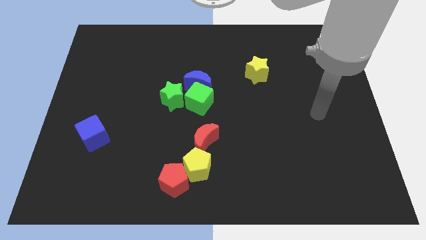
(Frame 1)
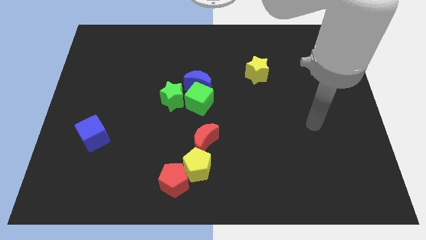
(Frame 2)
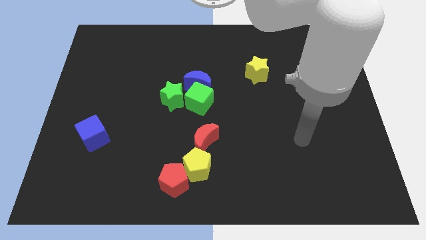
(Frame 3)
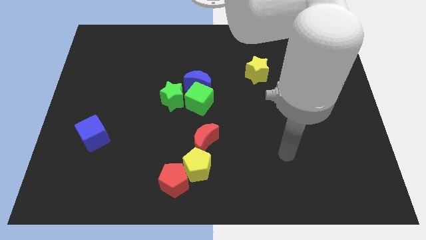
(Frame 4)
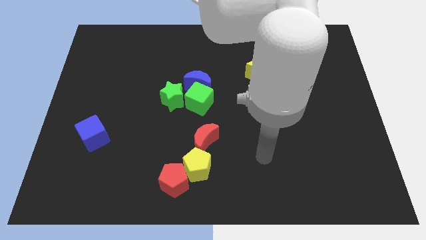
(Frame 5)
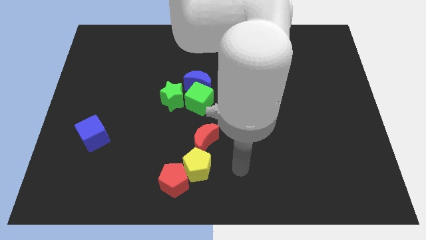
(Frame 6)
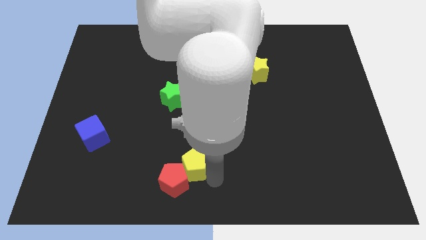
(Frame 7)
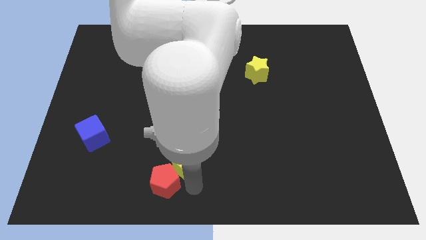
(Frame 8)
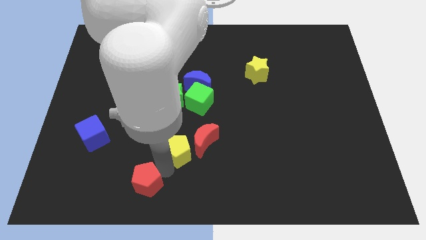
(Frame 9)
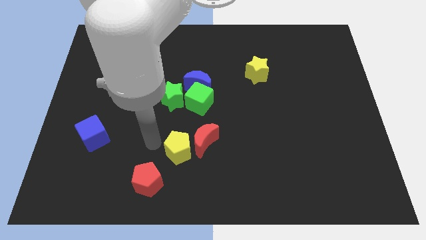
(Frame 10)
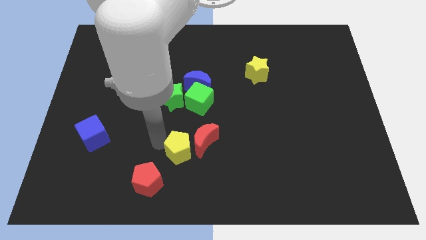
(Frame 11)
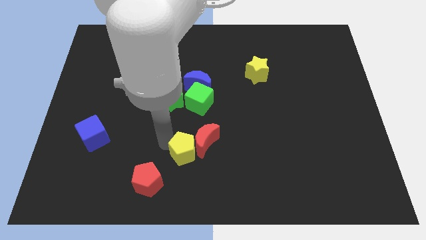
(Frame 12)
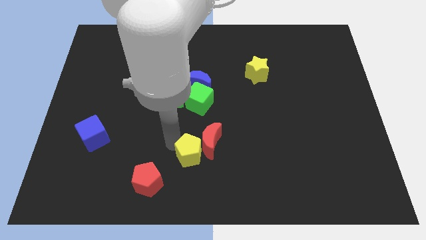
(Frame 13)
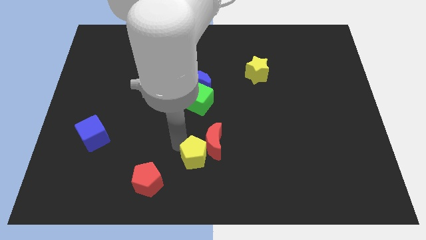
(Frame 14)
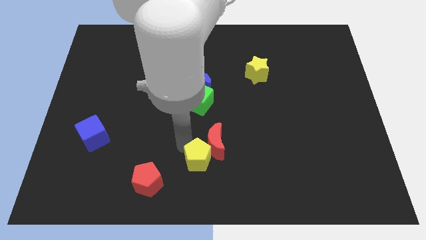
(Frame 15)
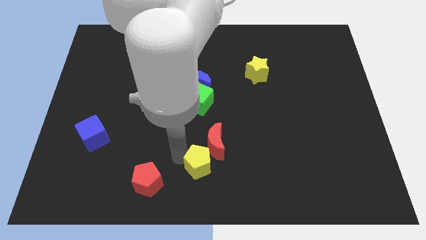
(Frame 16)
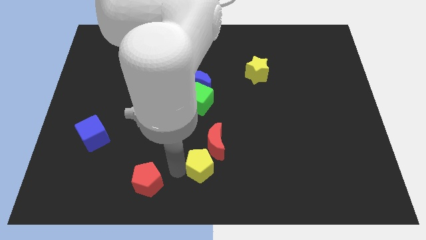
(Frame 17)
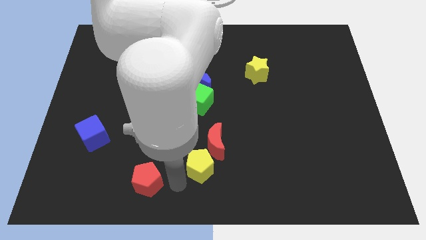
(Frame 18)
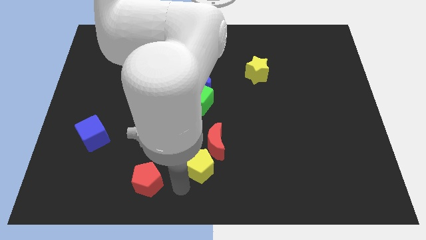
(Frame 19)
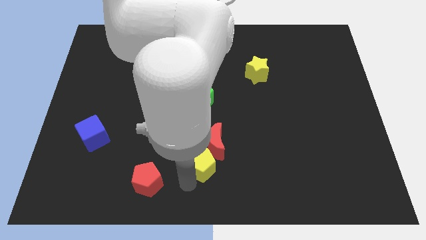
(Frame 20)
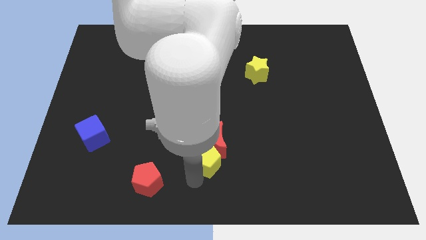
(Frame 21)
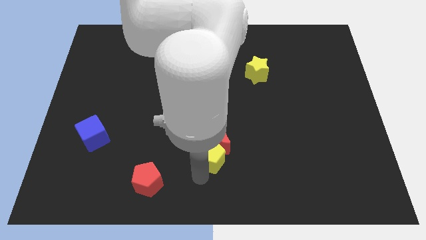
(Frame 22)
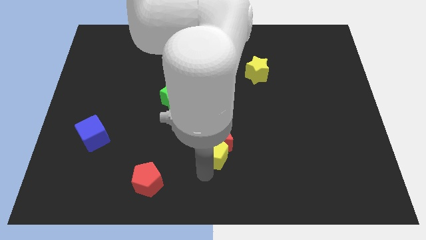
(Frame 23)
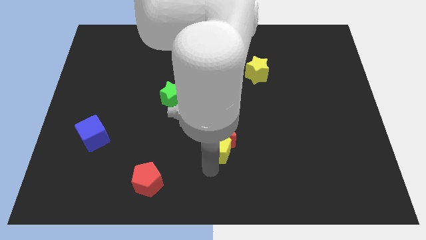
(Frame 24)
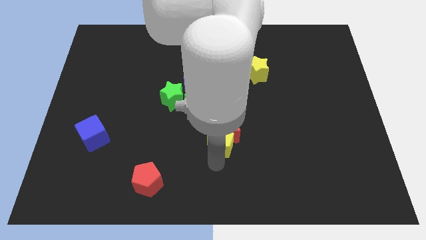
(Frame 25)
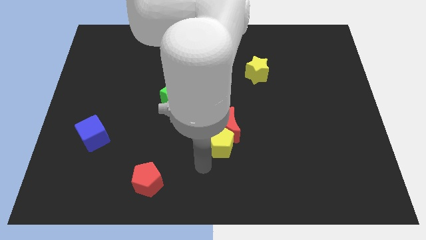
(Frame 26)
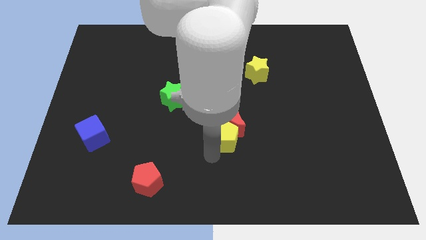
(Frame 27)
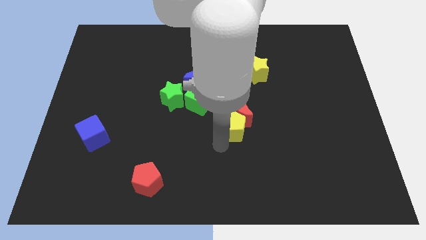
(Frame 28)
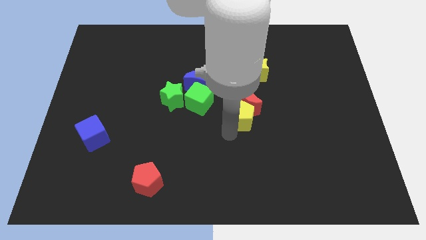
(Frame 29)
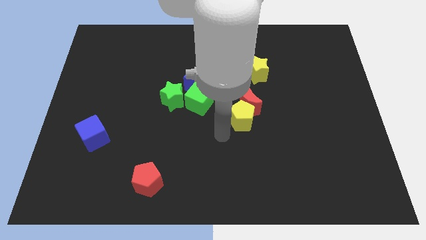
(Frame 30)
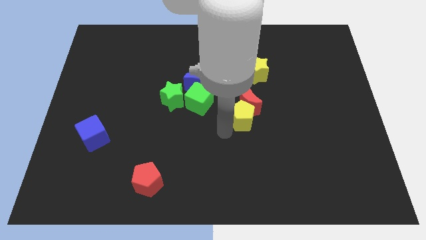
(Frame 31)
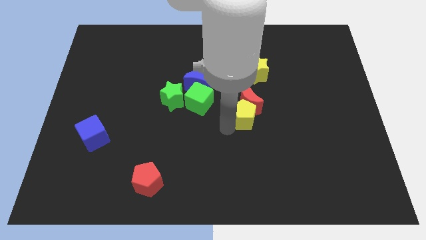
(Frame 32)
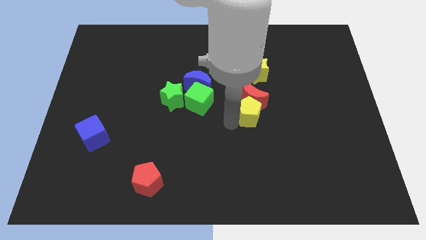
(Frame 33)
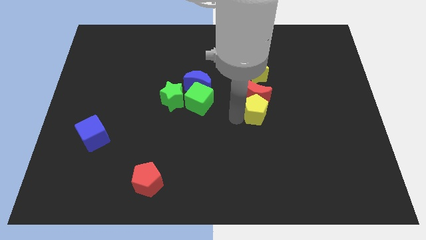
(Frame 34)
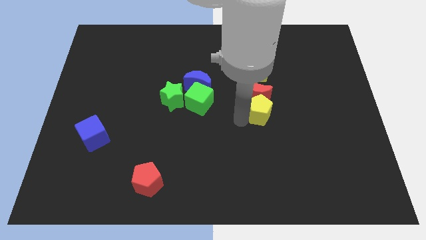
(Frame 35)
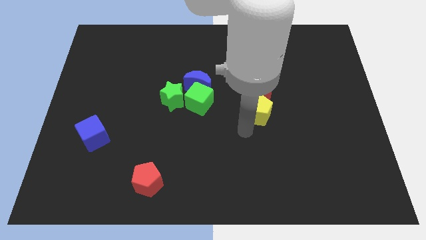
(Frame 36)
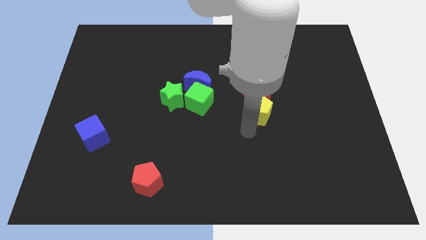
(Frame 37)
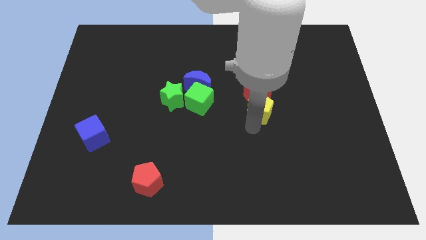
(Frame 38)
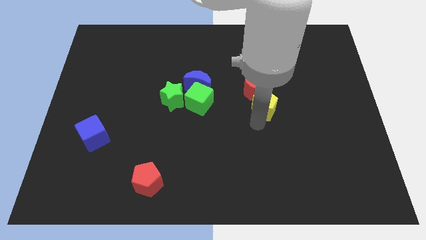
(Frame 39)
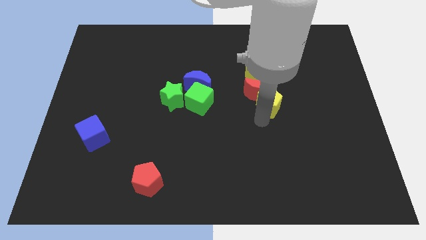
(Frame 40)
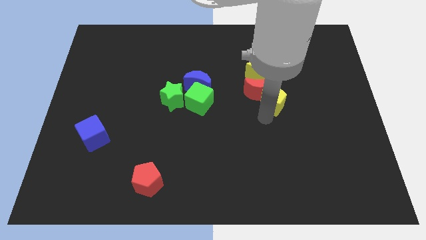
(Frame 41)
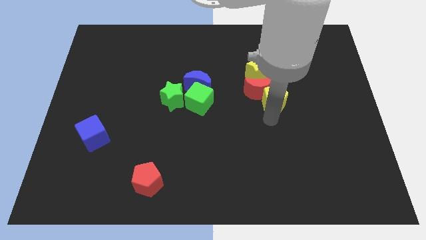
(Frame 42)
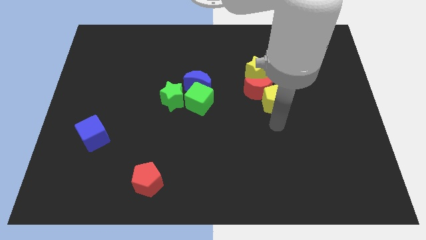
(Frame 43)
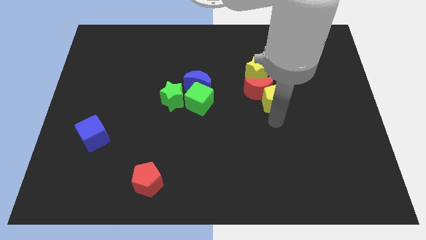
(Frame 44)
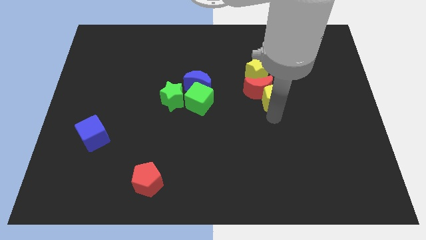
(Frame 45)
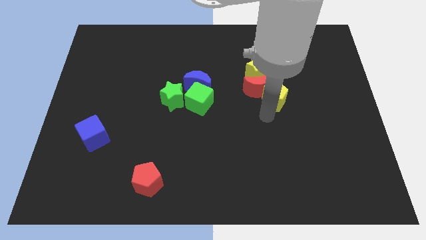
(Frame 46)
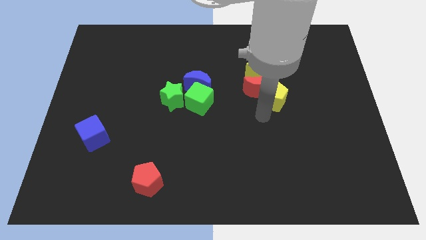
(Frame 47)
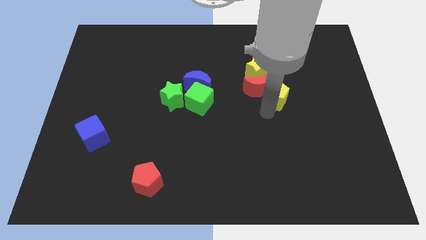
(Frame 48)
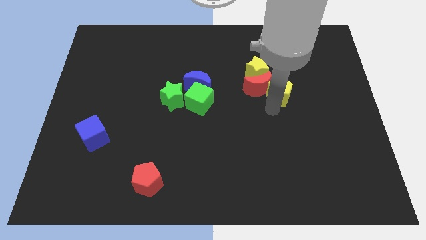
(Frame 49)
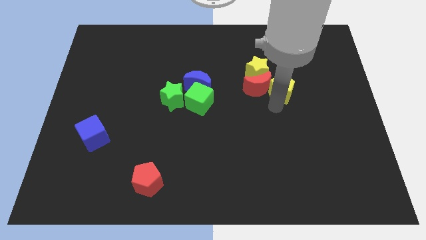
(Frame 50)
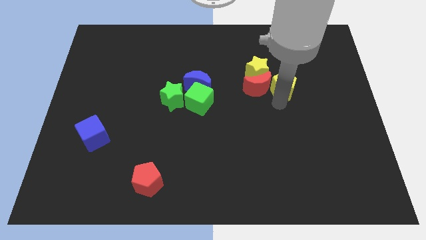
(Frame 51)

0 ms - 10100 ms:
move the yellow pentagon right of the yellow star

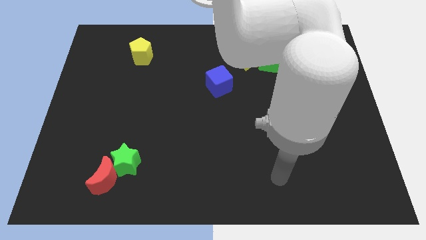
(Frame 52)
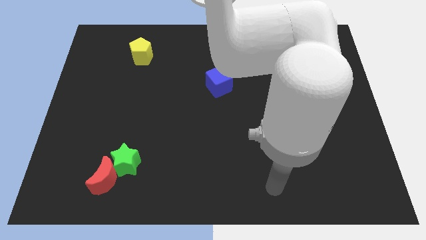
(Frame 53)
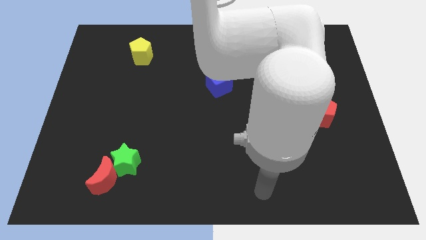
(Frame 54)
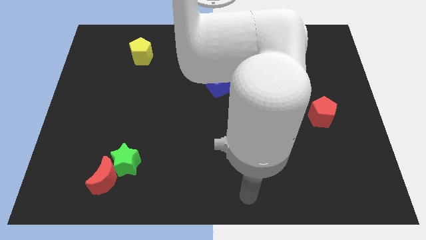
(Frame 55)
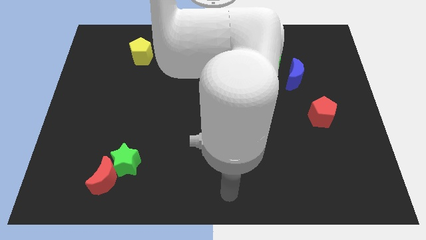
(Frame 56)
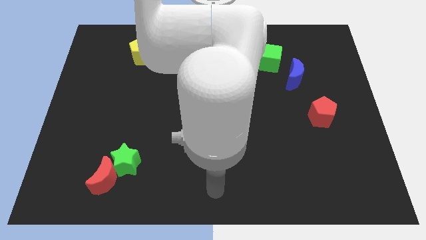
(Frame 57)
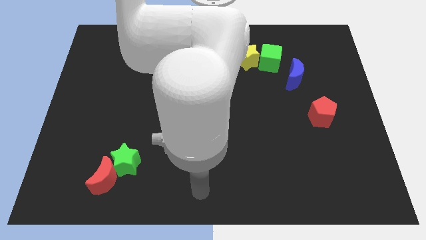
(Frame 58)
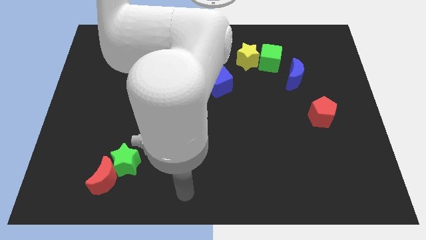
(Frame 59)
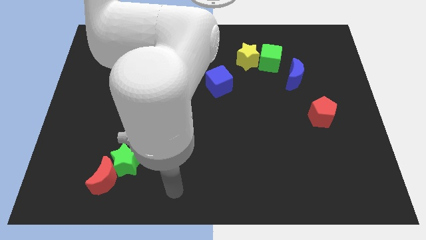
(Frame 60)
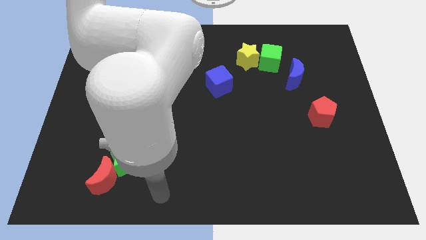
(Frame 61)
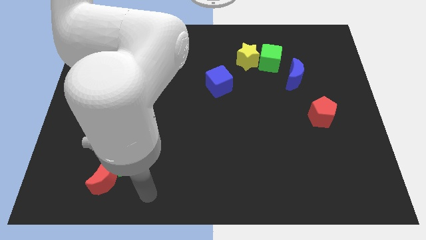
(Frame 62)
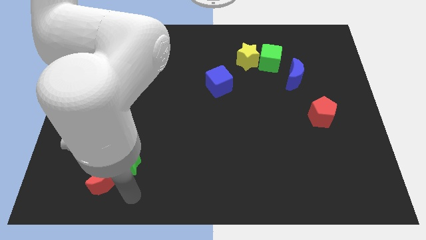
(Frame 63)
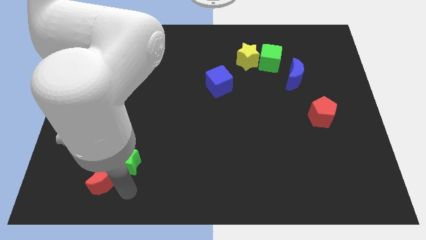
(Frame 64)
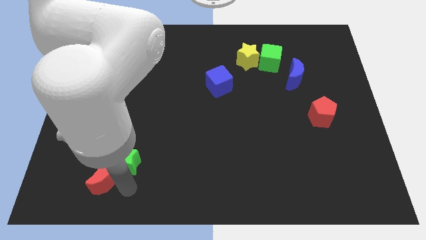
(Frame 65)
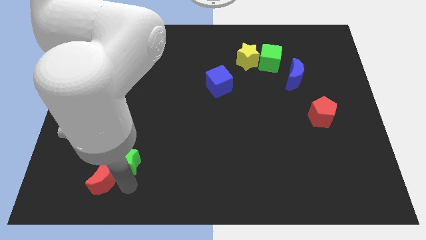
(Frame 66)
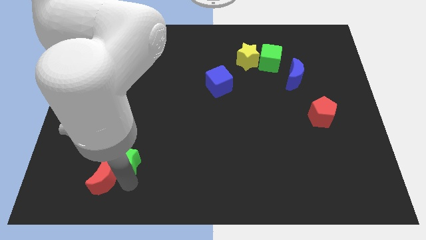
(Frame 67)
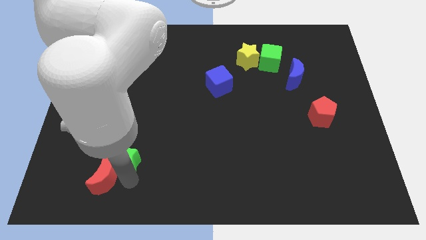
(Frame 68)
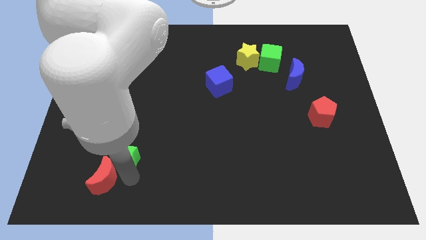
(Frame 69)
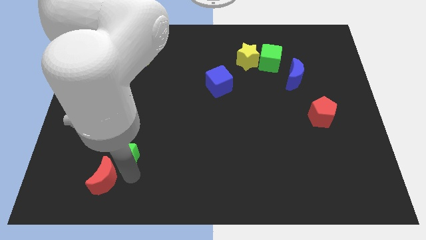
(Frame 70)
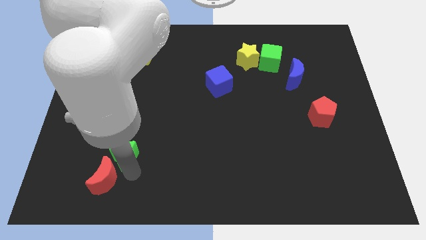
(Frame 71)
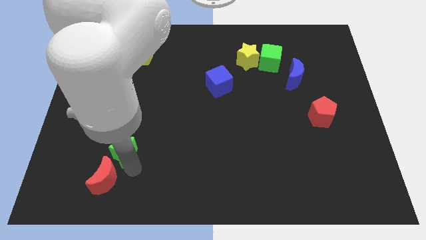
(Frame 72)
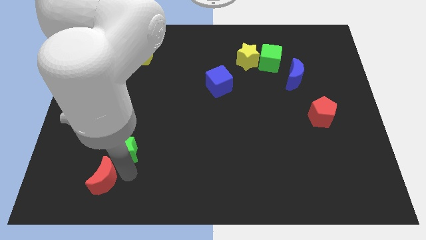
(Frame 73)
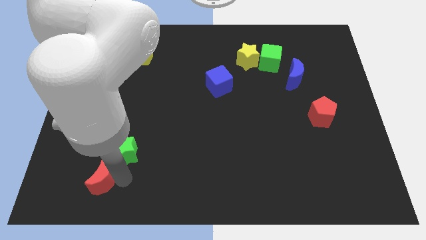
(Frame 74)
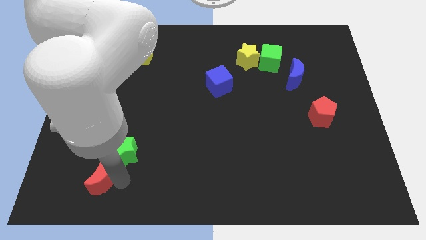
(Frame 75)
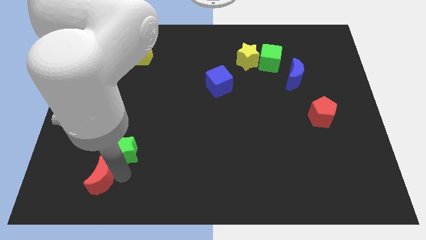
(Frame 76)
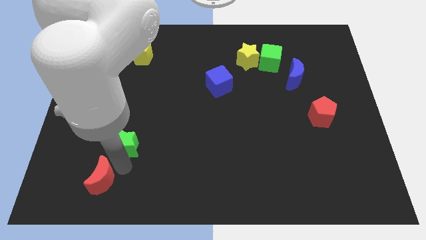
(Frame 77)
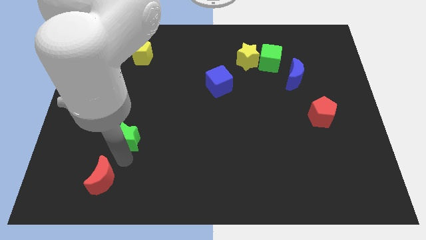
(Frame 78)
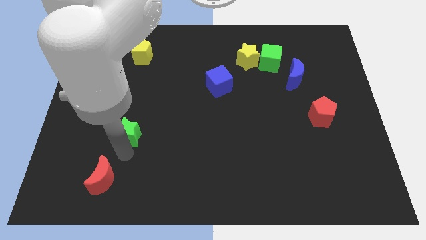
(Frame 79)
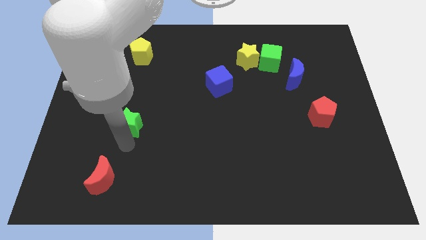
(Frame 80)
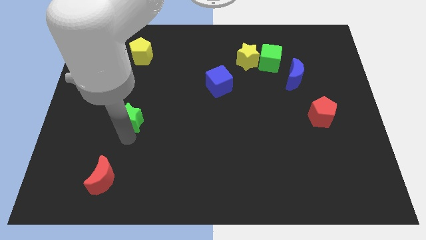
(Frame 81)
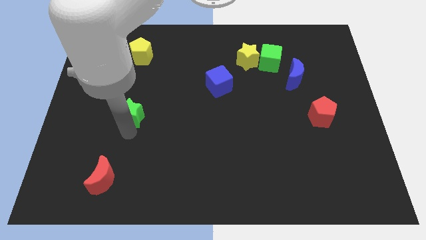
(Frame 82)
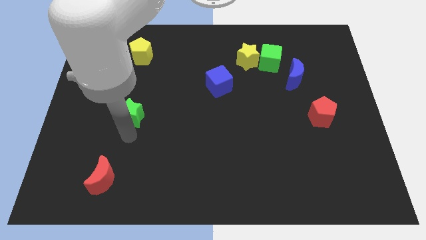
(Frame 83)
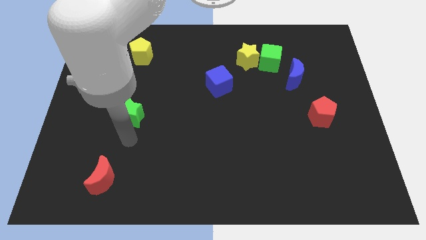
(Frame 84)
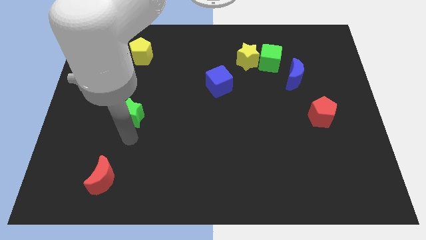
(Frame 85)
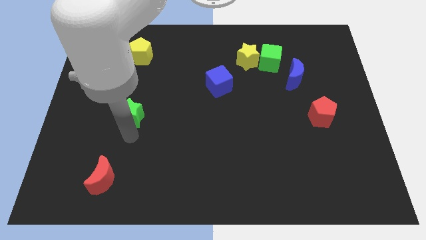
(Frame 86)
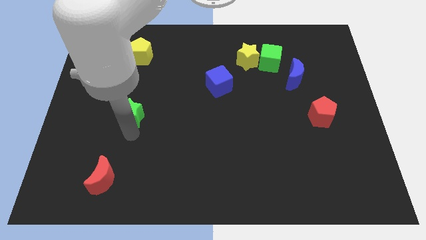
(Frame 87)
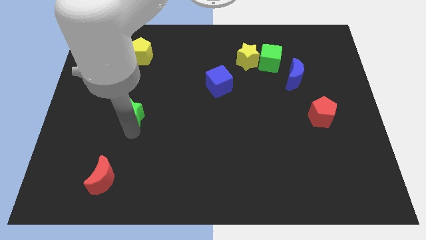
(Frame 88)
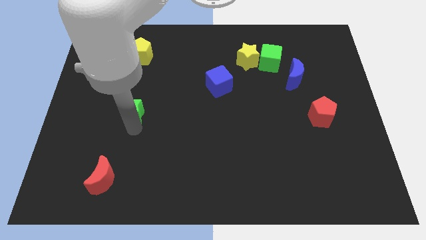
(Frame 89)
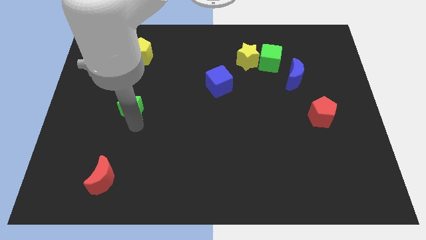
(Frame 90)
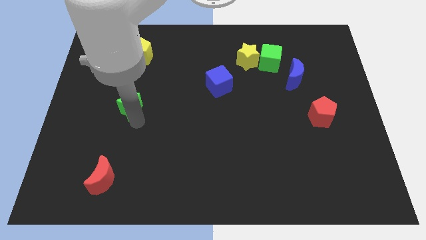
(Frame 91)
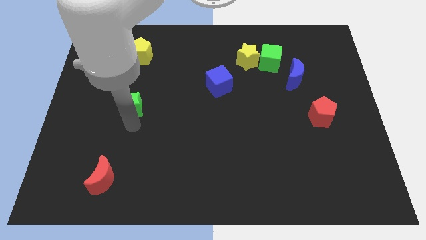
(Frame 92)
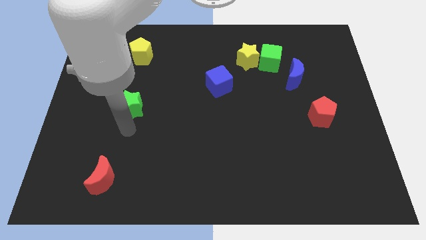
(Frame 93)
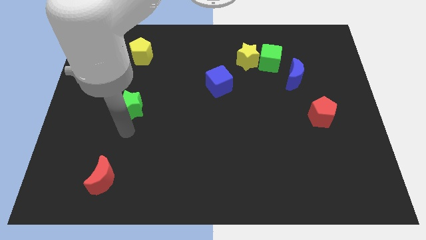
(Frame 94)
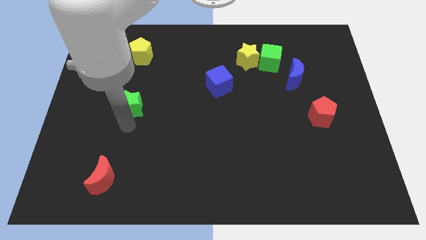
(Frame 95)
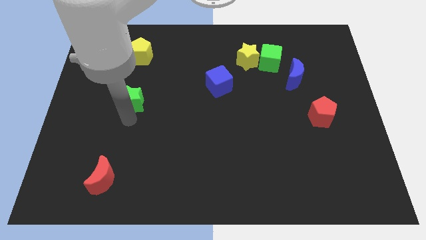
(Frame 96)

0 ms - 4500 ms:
slide the green star below the yellow pentagon
